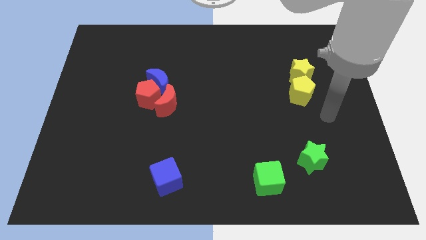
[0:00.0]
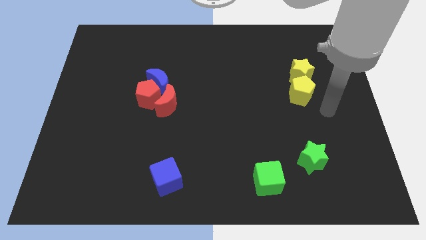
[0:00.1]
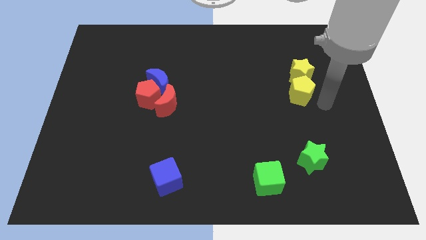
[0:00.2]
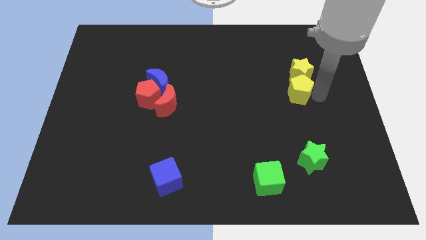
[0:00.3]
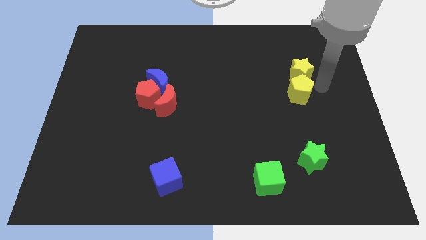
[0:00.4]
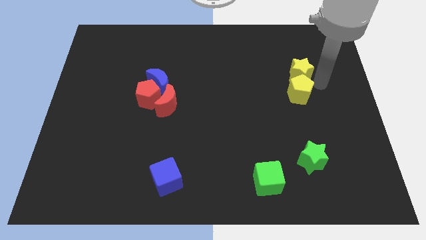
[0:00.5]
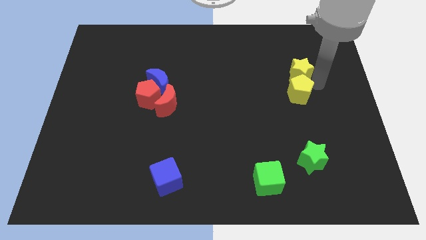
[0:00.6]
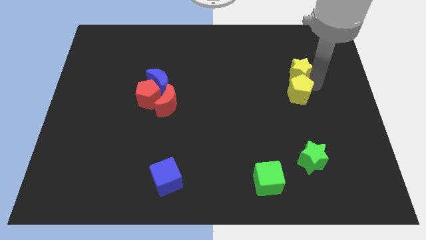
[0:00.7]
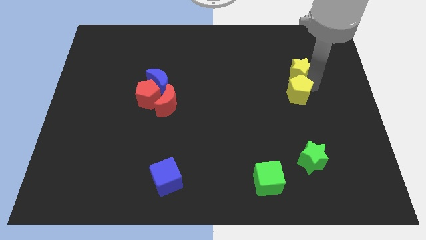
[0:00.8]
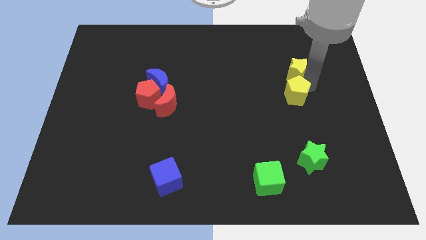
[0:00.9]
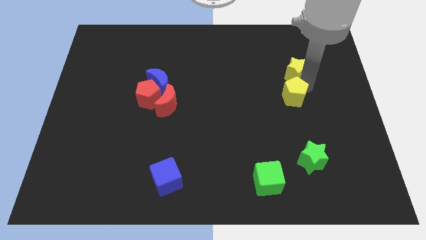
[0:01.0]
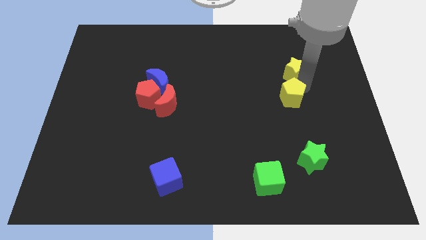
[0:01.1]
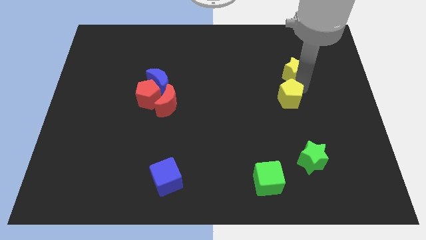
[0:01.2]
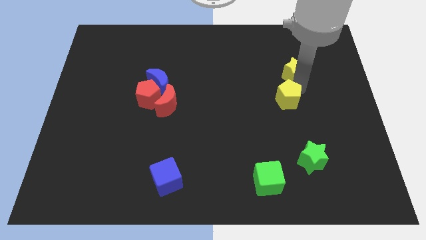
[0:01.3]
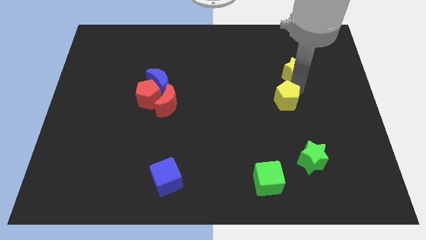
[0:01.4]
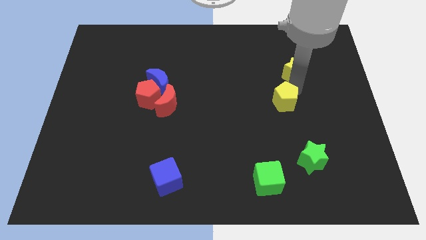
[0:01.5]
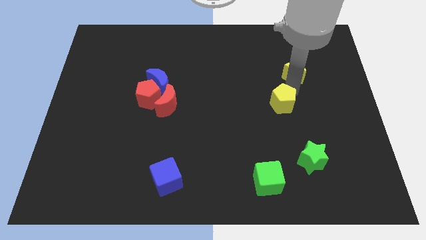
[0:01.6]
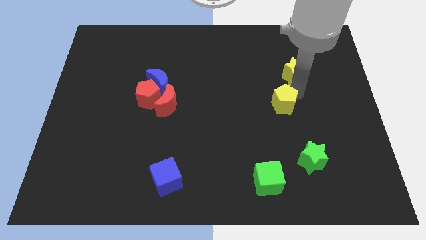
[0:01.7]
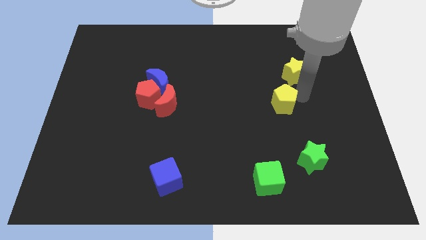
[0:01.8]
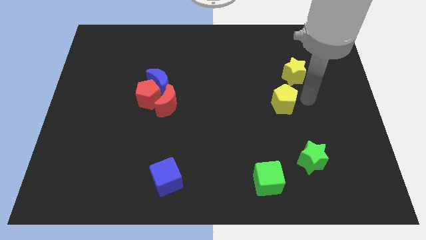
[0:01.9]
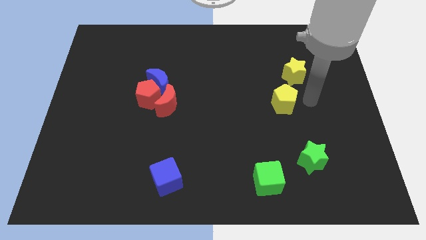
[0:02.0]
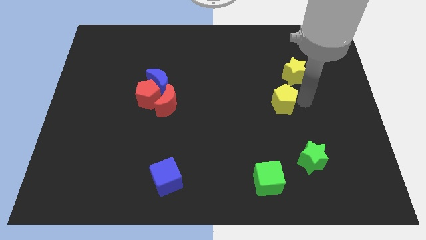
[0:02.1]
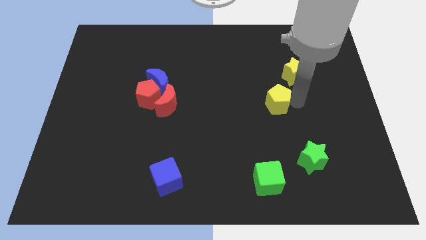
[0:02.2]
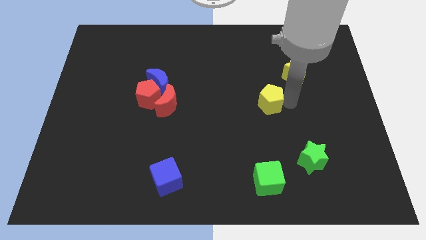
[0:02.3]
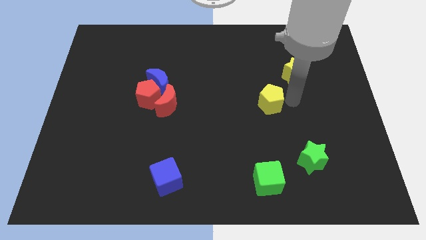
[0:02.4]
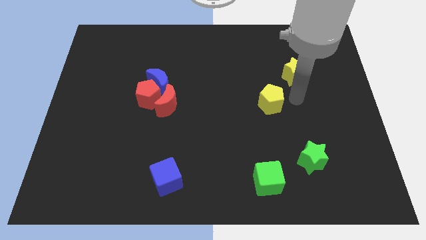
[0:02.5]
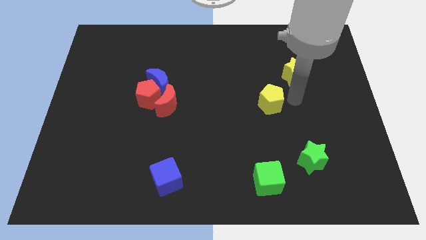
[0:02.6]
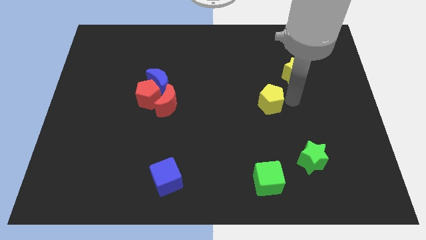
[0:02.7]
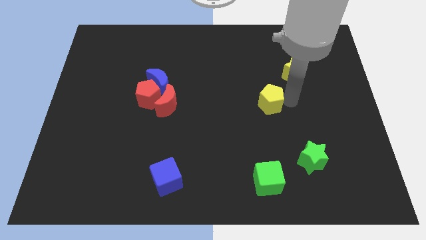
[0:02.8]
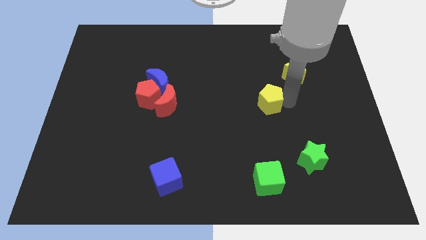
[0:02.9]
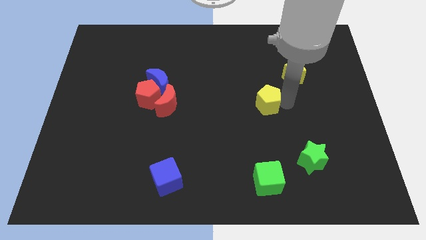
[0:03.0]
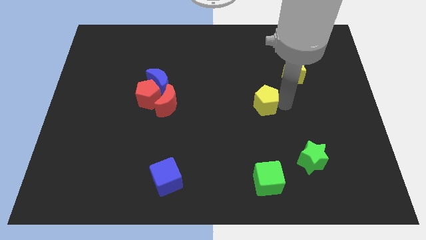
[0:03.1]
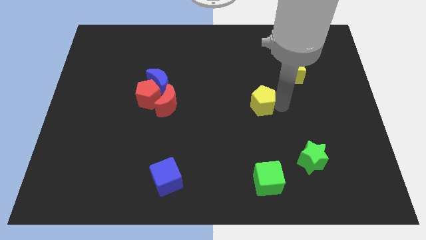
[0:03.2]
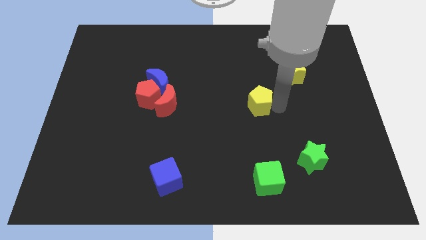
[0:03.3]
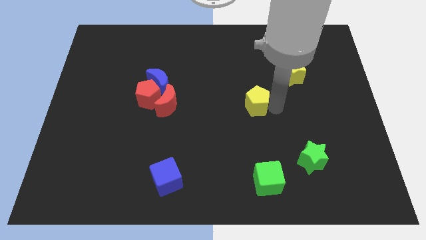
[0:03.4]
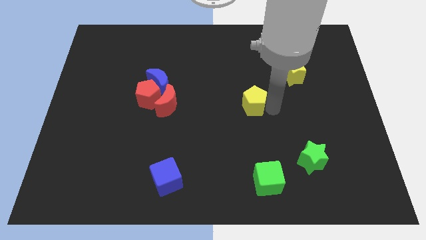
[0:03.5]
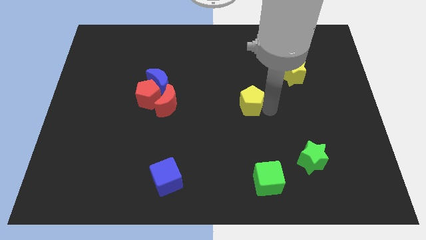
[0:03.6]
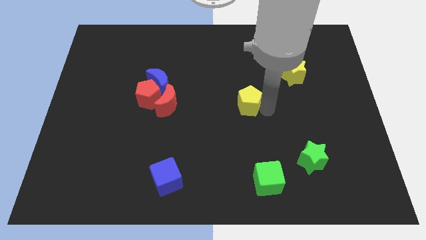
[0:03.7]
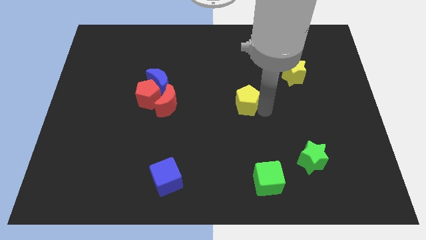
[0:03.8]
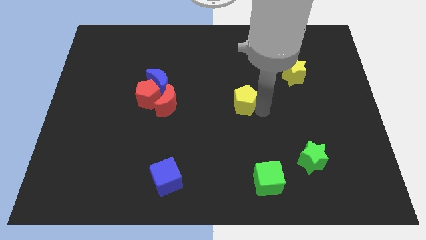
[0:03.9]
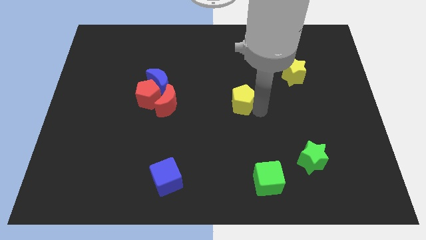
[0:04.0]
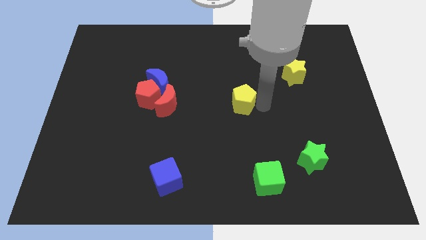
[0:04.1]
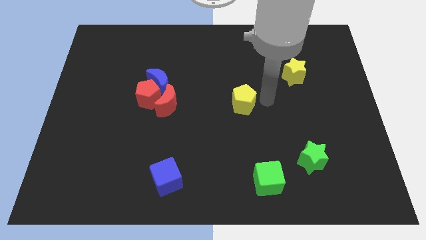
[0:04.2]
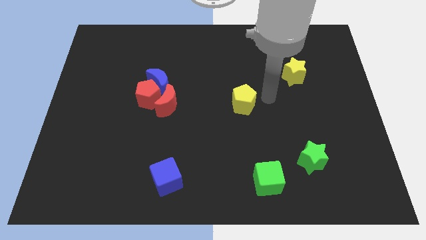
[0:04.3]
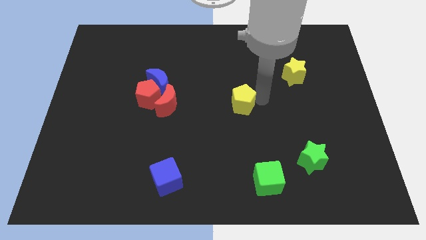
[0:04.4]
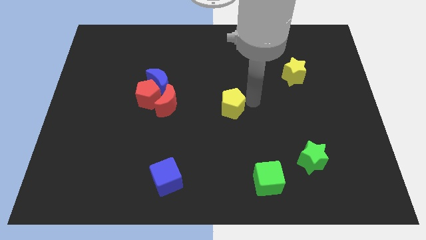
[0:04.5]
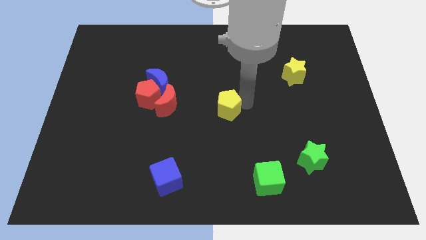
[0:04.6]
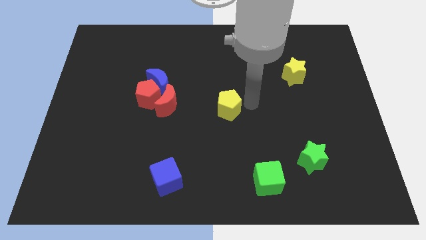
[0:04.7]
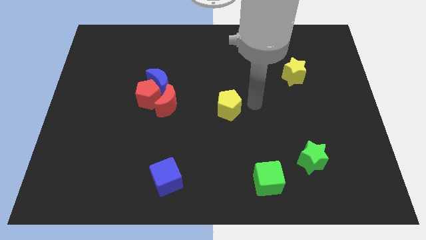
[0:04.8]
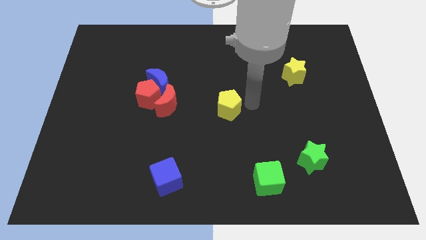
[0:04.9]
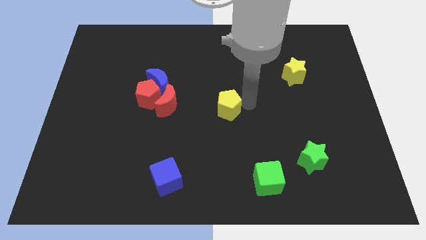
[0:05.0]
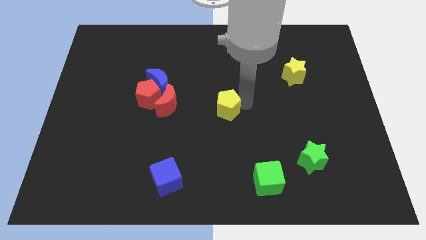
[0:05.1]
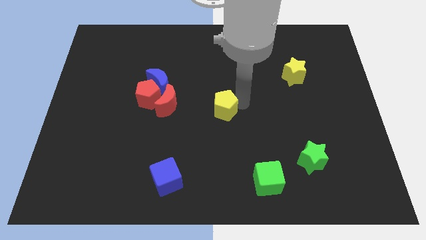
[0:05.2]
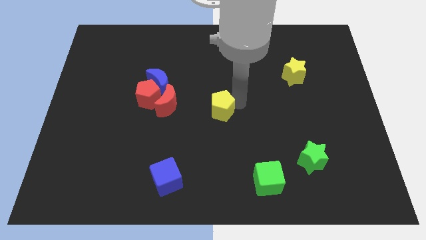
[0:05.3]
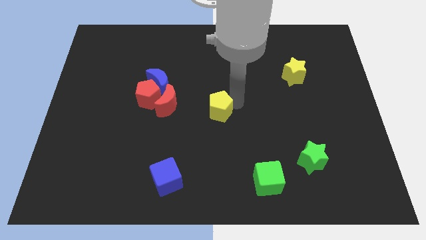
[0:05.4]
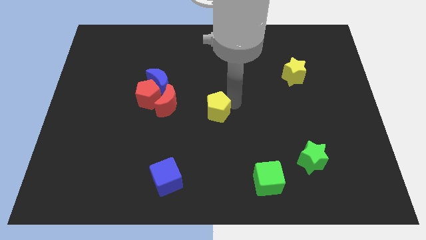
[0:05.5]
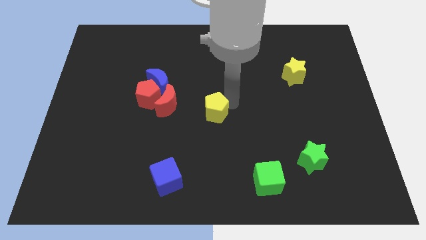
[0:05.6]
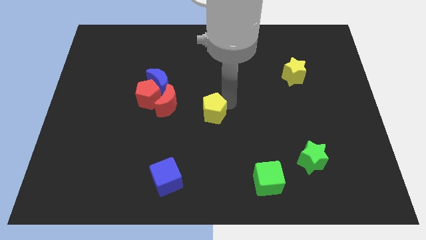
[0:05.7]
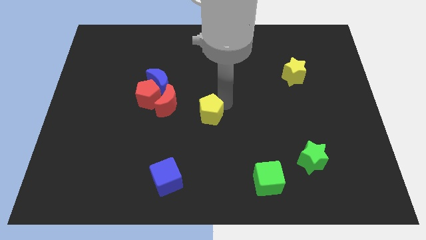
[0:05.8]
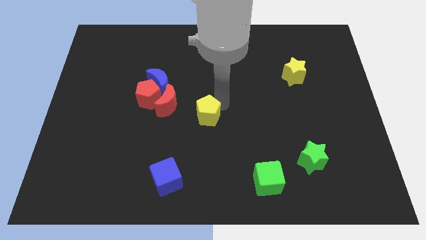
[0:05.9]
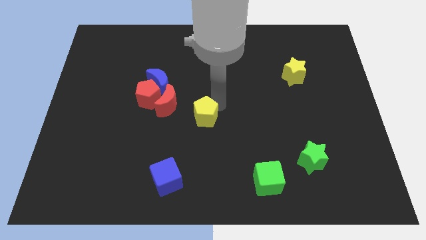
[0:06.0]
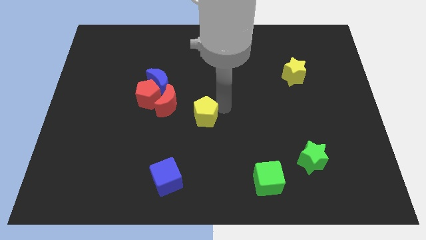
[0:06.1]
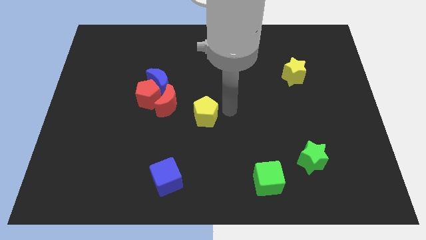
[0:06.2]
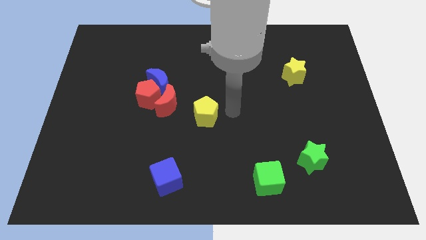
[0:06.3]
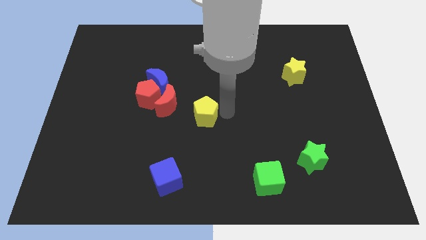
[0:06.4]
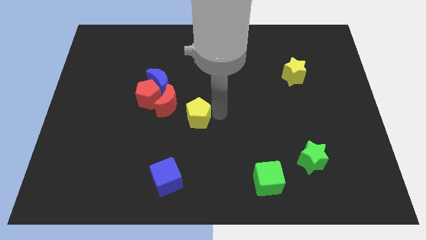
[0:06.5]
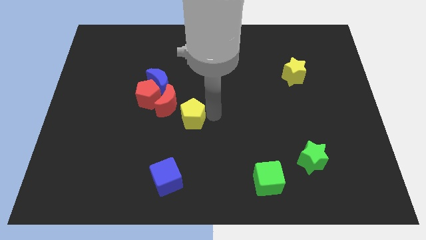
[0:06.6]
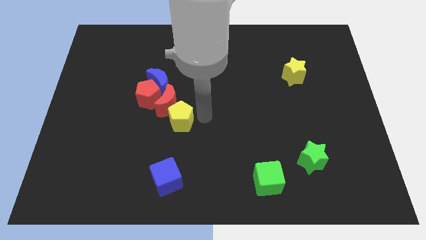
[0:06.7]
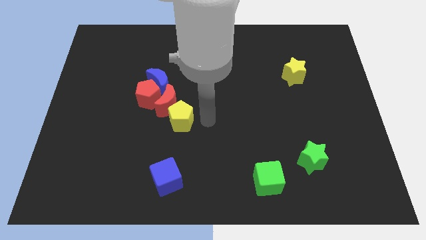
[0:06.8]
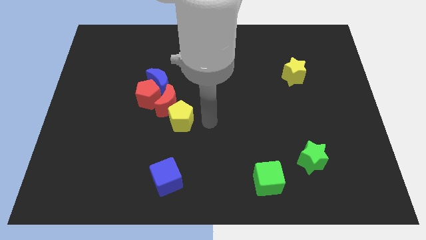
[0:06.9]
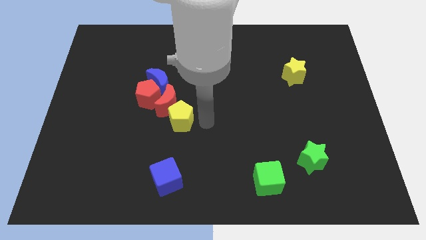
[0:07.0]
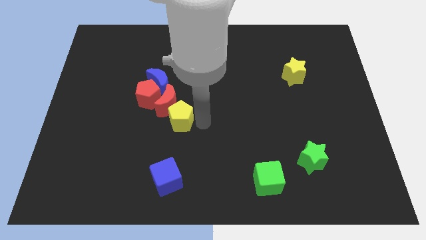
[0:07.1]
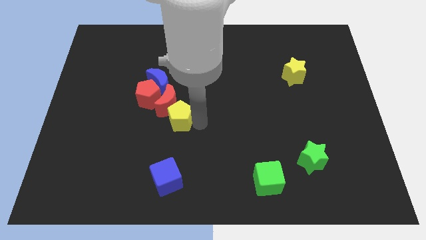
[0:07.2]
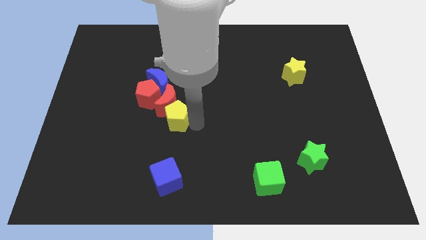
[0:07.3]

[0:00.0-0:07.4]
move the yellow pentagon to the bottom of the blue moon

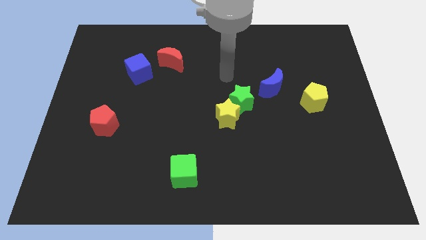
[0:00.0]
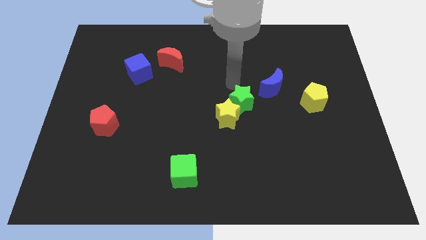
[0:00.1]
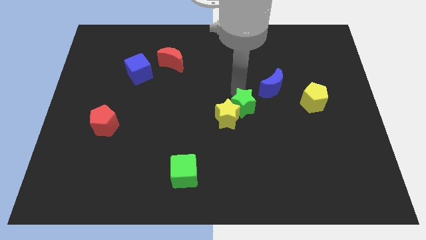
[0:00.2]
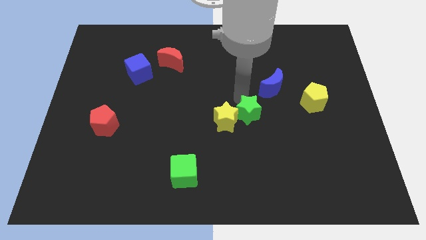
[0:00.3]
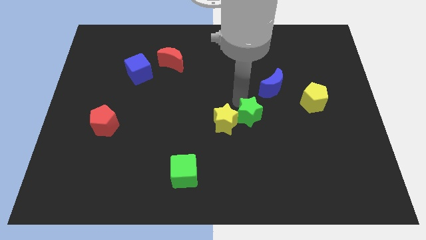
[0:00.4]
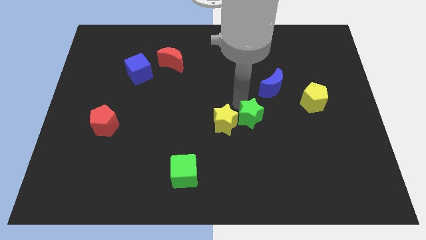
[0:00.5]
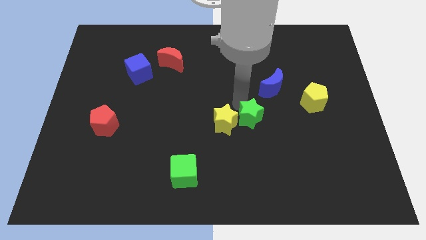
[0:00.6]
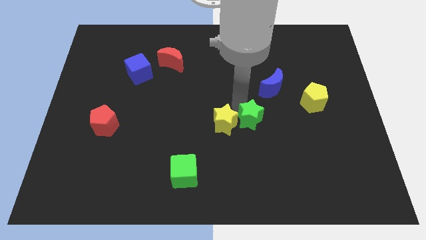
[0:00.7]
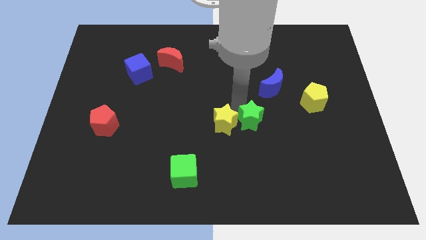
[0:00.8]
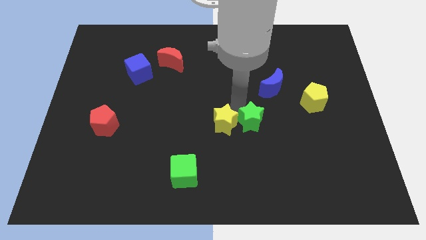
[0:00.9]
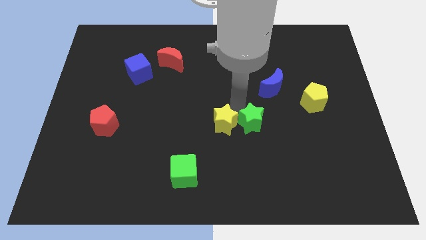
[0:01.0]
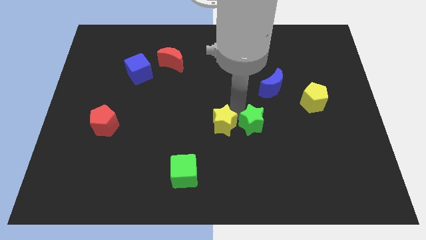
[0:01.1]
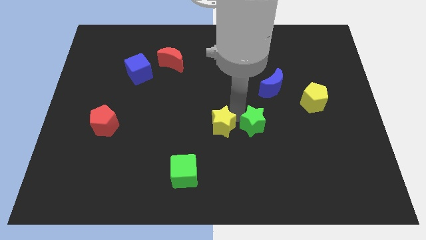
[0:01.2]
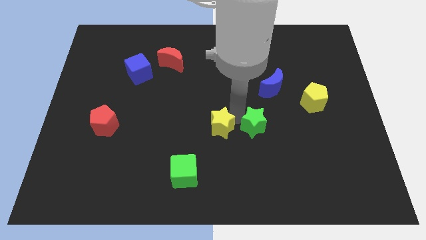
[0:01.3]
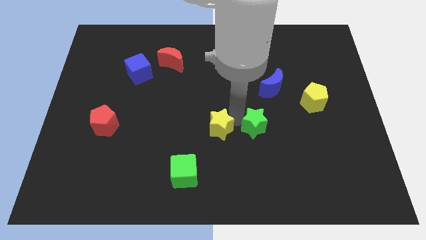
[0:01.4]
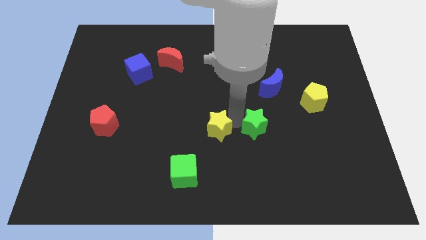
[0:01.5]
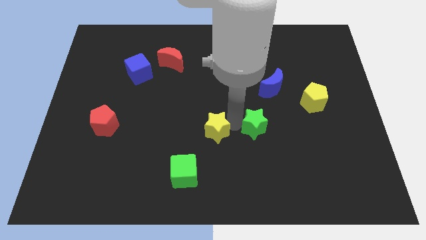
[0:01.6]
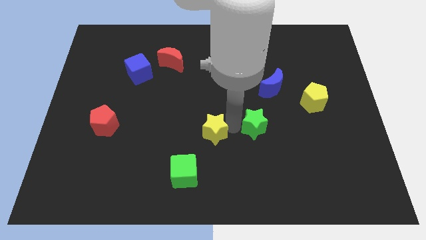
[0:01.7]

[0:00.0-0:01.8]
move the yellow star to the top right of the green cube
